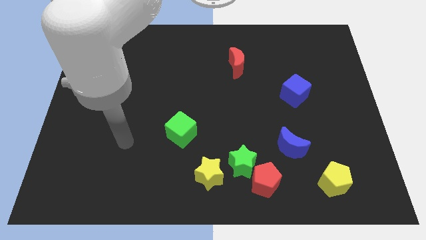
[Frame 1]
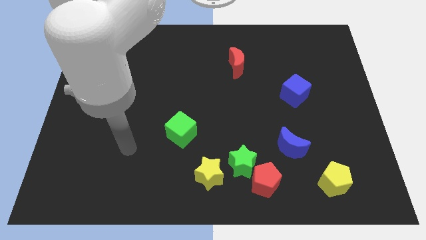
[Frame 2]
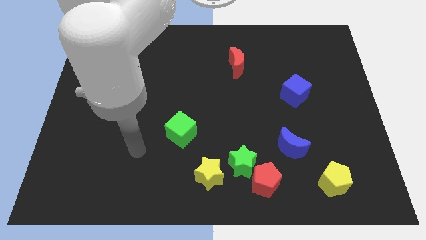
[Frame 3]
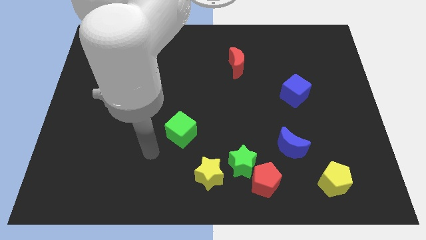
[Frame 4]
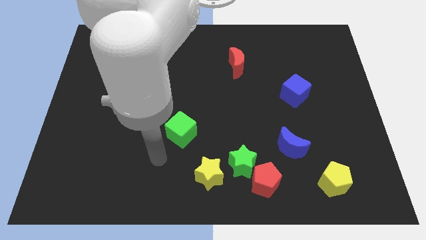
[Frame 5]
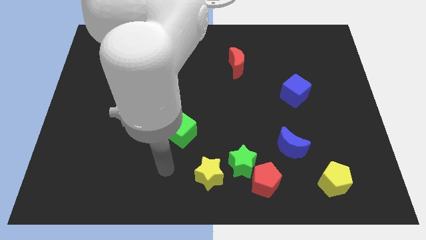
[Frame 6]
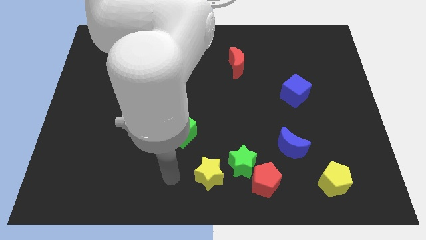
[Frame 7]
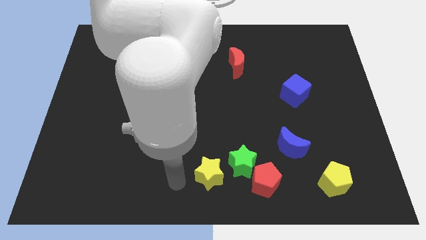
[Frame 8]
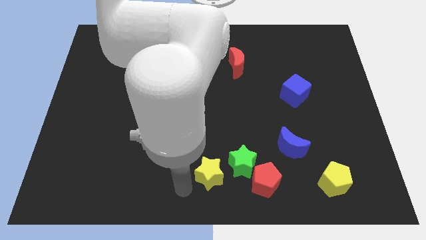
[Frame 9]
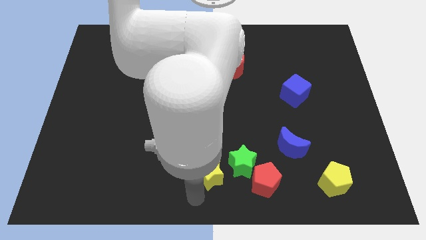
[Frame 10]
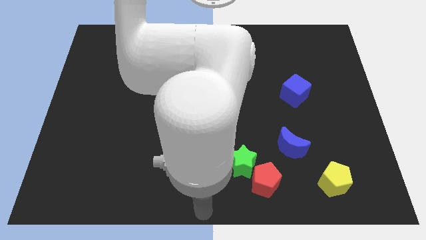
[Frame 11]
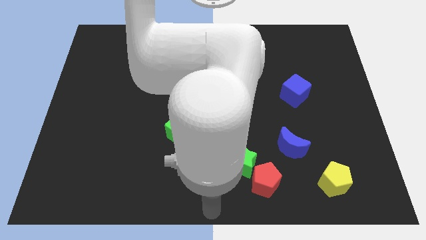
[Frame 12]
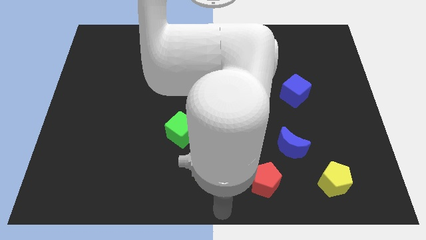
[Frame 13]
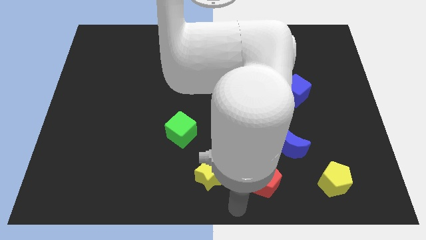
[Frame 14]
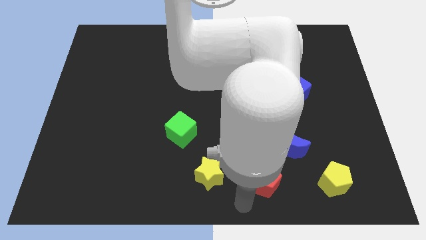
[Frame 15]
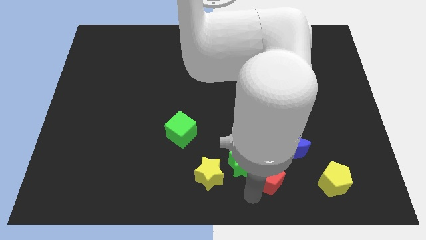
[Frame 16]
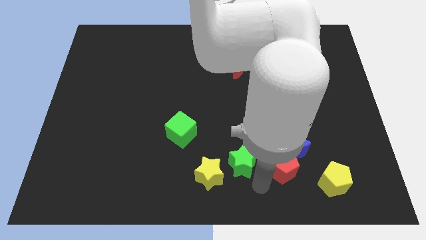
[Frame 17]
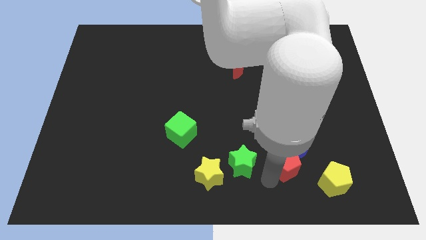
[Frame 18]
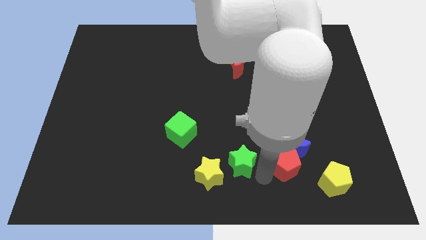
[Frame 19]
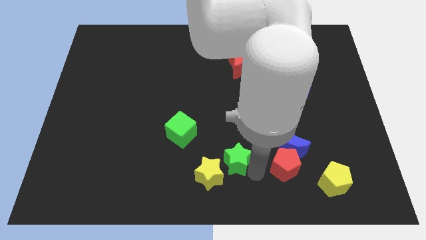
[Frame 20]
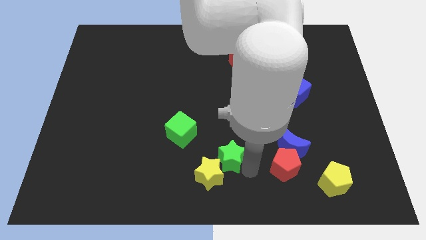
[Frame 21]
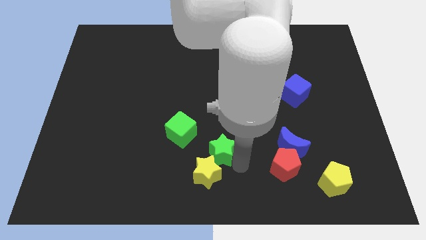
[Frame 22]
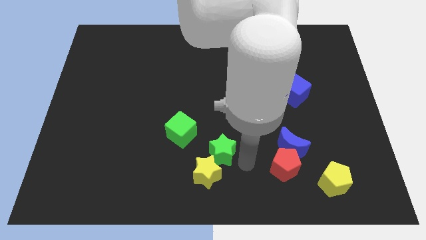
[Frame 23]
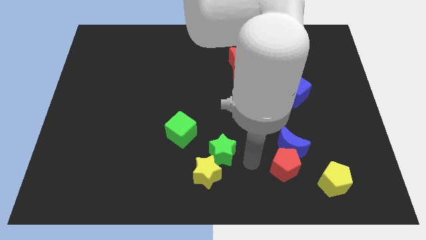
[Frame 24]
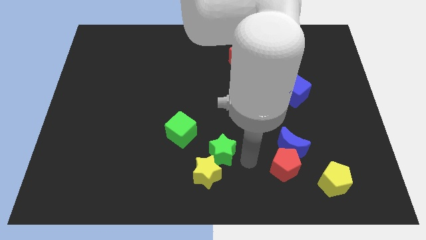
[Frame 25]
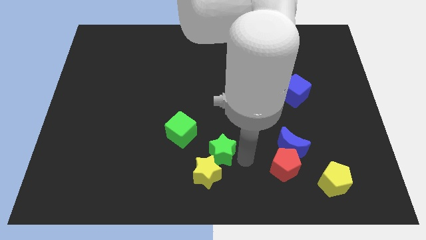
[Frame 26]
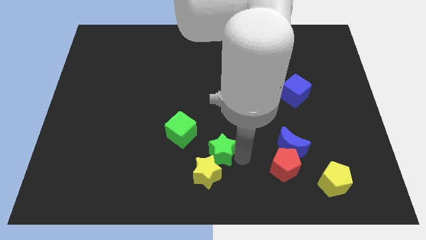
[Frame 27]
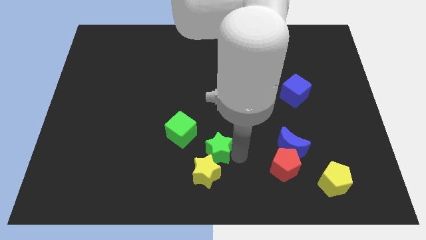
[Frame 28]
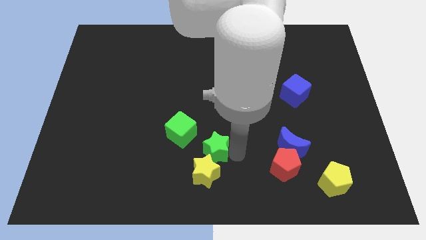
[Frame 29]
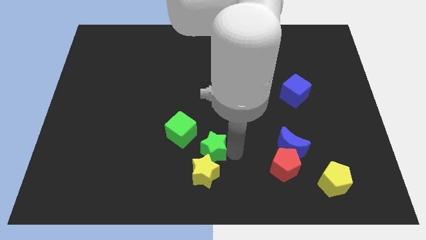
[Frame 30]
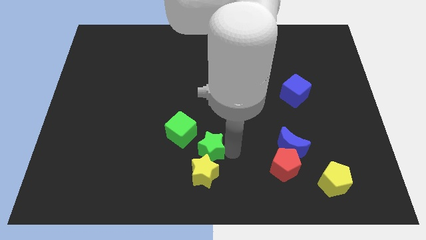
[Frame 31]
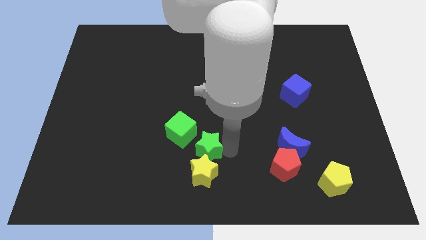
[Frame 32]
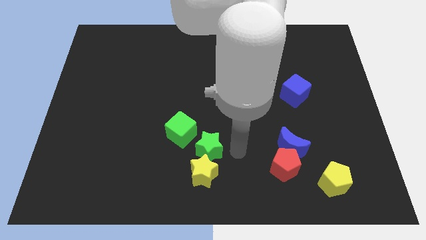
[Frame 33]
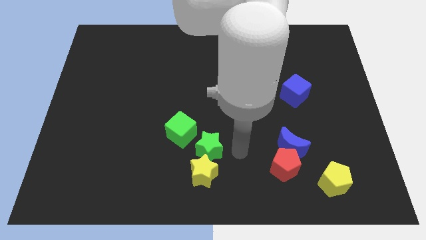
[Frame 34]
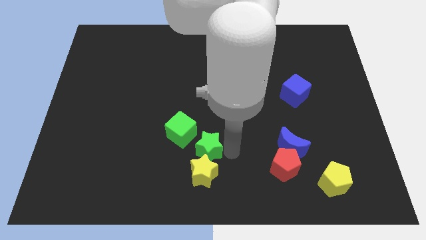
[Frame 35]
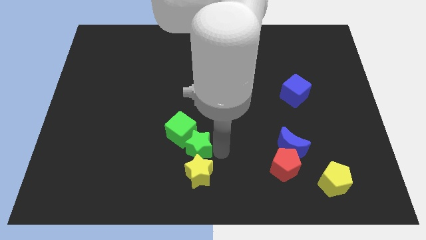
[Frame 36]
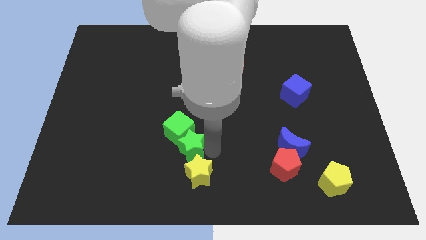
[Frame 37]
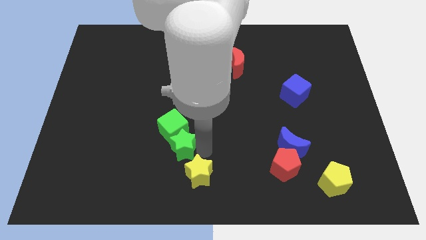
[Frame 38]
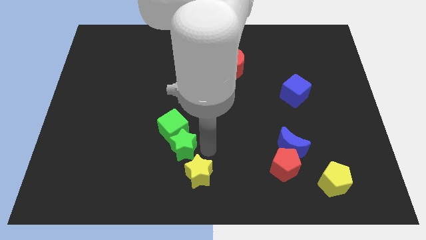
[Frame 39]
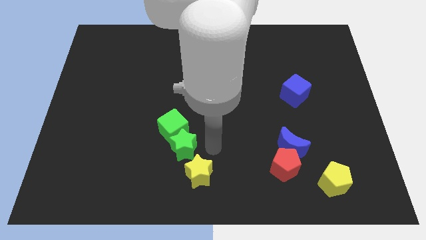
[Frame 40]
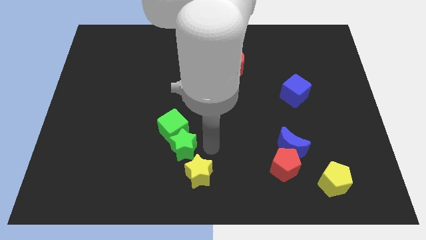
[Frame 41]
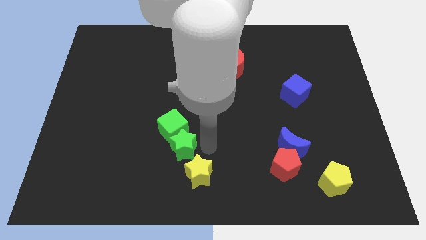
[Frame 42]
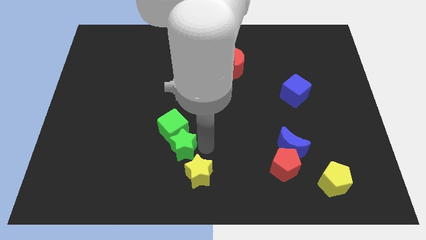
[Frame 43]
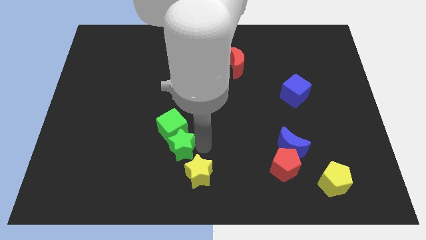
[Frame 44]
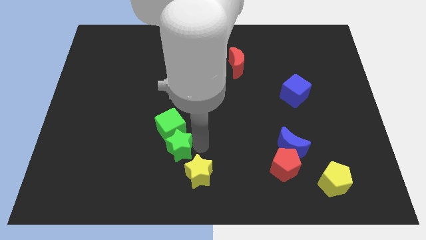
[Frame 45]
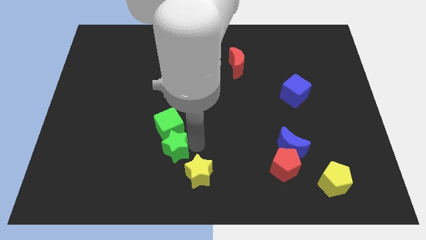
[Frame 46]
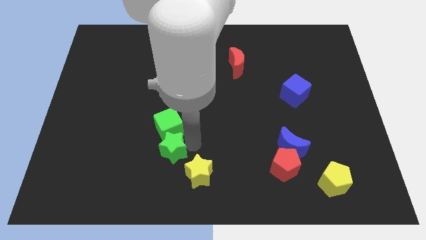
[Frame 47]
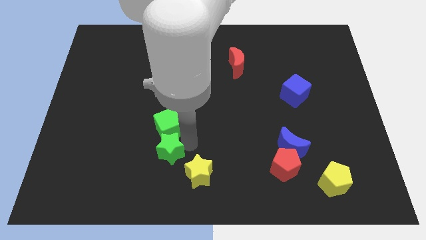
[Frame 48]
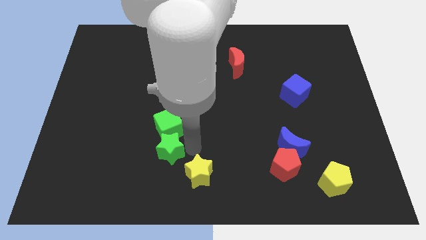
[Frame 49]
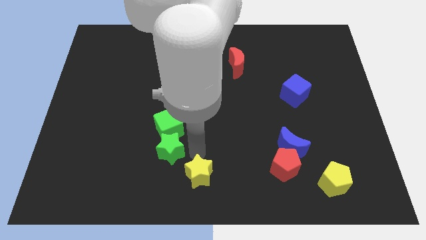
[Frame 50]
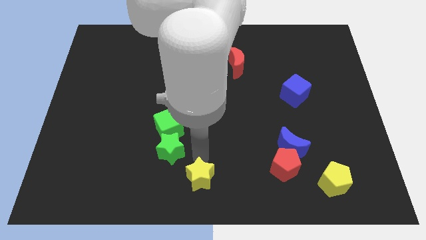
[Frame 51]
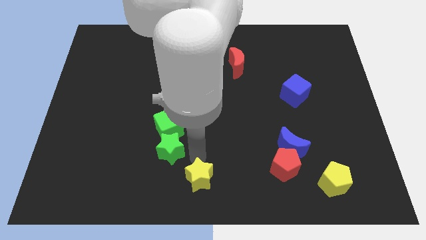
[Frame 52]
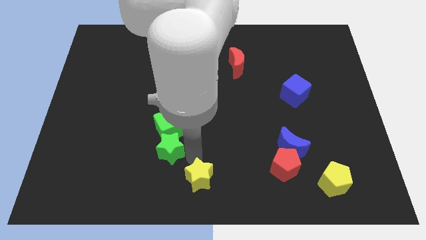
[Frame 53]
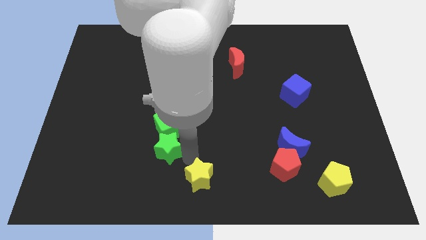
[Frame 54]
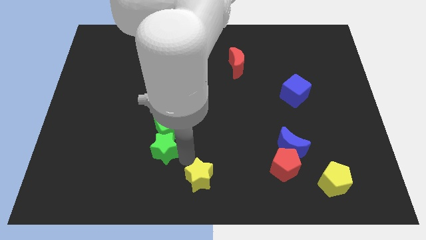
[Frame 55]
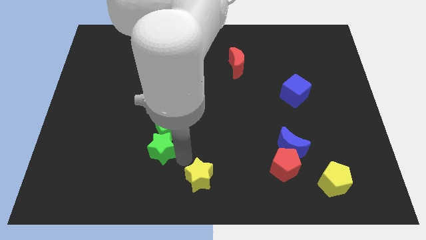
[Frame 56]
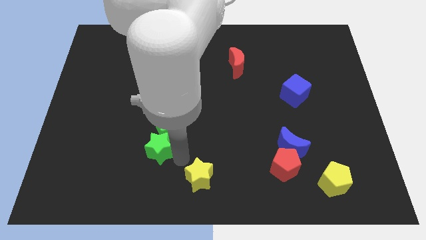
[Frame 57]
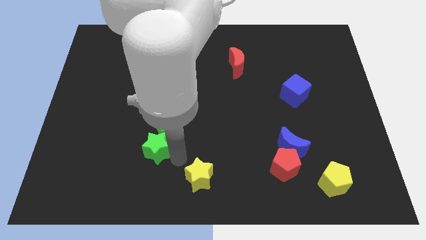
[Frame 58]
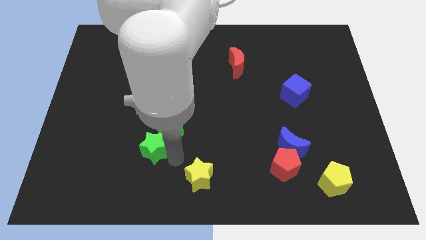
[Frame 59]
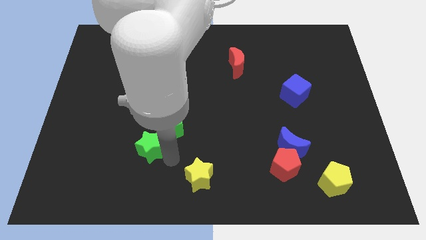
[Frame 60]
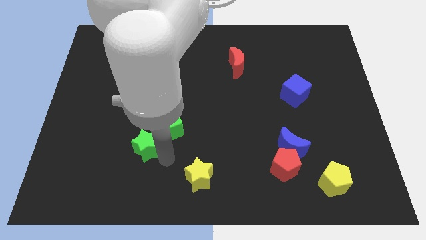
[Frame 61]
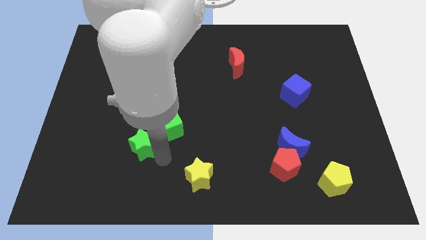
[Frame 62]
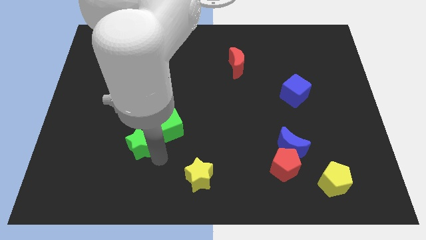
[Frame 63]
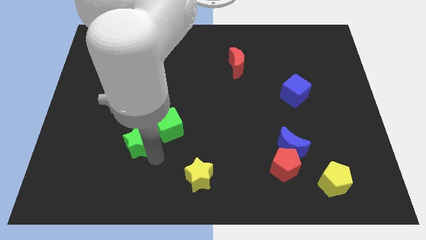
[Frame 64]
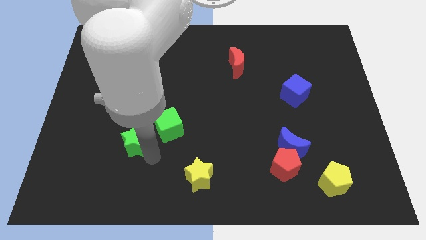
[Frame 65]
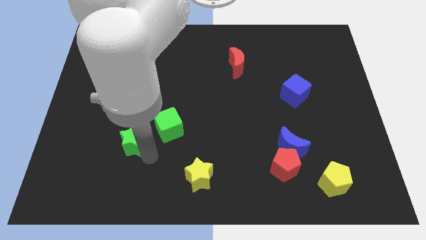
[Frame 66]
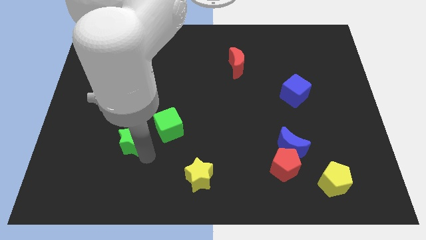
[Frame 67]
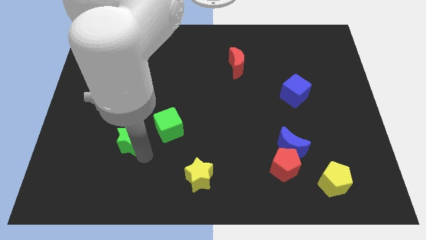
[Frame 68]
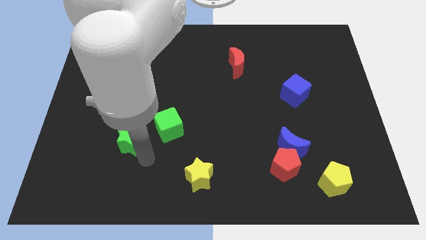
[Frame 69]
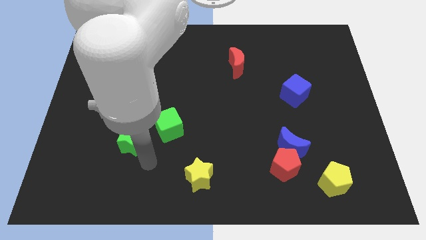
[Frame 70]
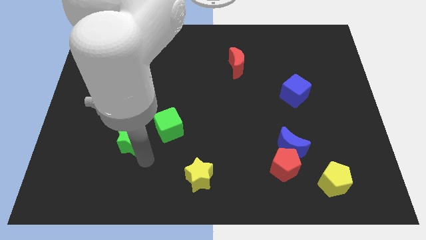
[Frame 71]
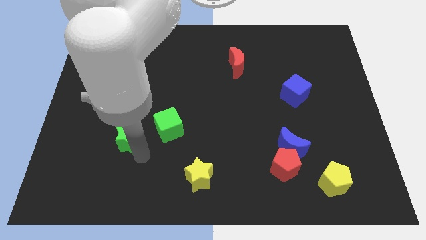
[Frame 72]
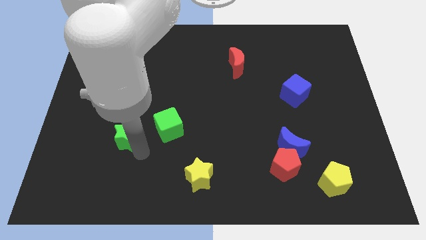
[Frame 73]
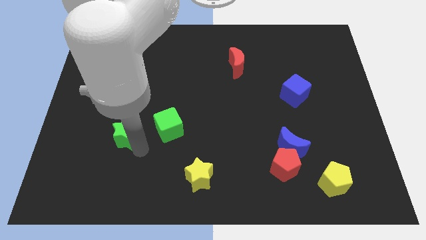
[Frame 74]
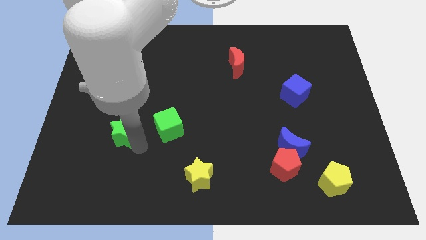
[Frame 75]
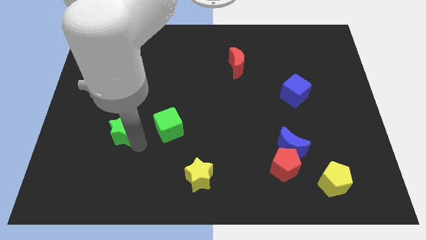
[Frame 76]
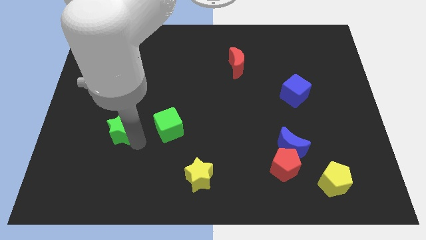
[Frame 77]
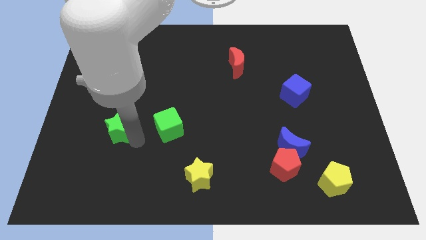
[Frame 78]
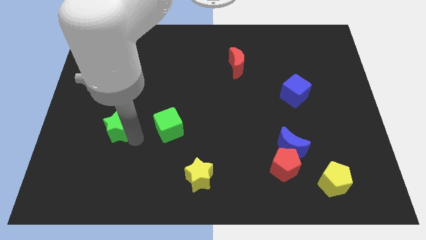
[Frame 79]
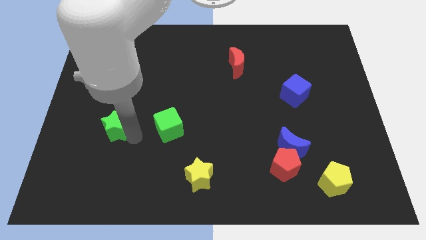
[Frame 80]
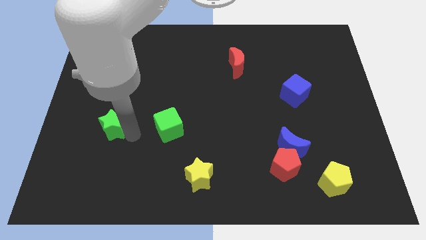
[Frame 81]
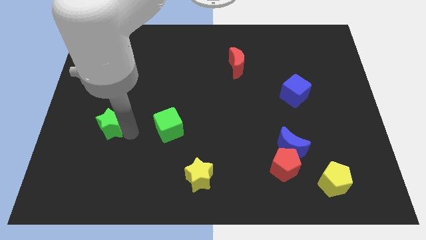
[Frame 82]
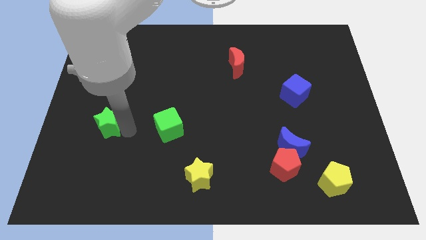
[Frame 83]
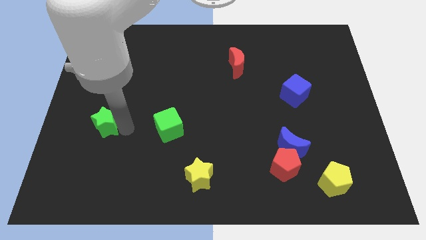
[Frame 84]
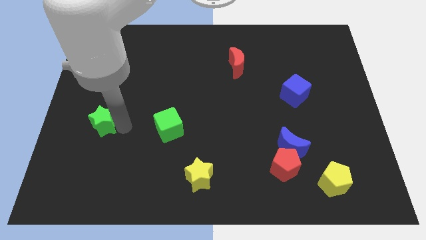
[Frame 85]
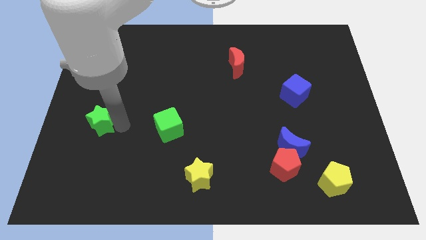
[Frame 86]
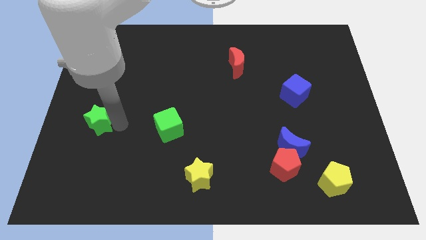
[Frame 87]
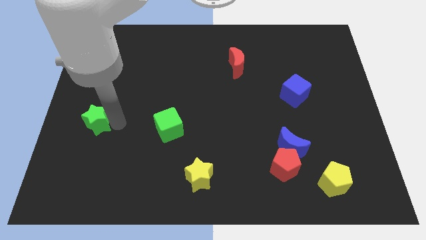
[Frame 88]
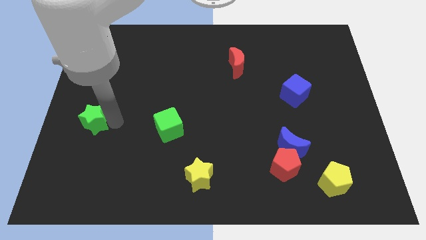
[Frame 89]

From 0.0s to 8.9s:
move the green star to the left side of the board
